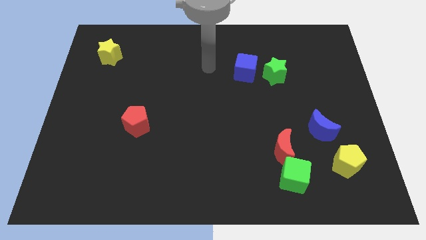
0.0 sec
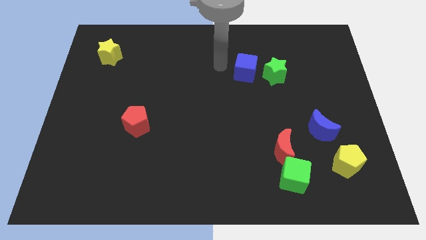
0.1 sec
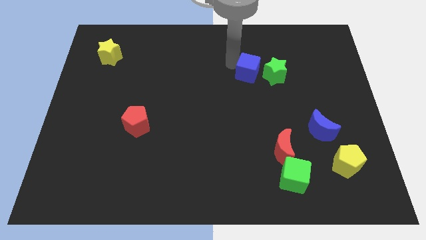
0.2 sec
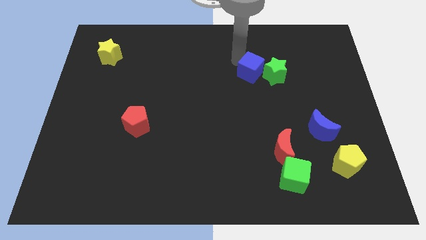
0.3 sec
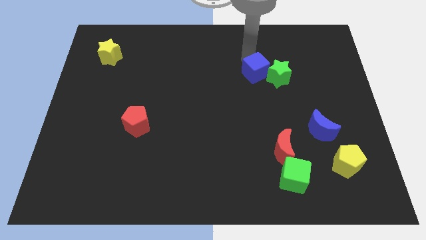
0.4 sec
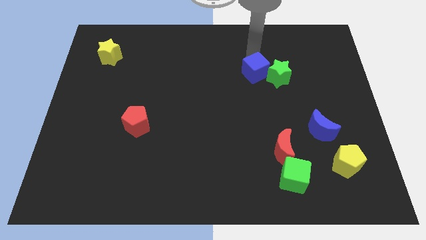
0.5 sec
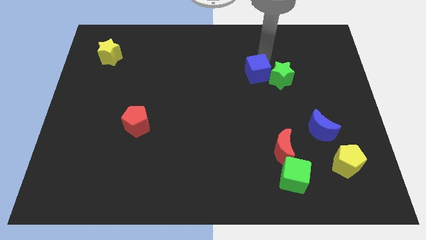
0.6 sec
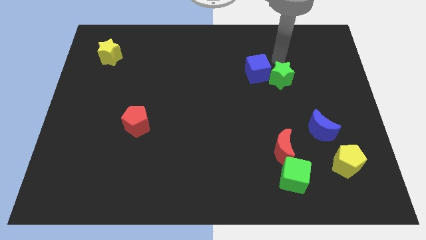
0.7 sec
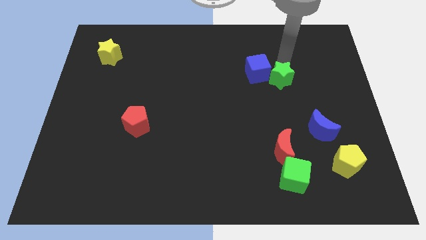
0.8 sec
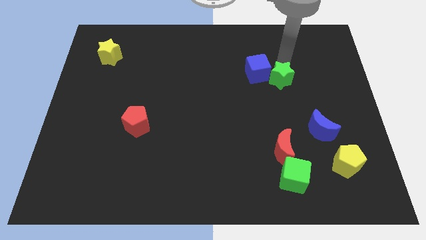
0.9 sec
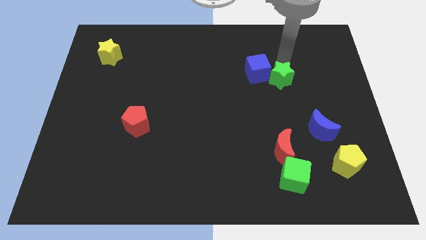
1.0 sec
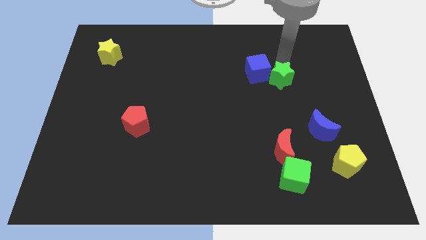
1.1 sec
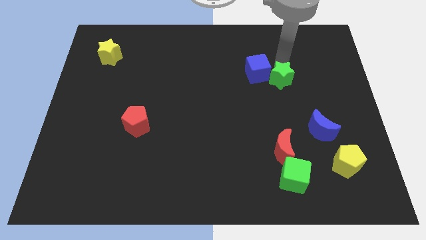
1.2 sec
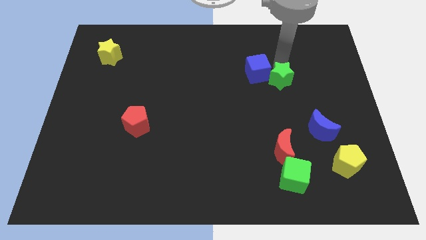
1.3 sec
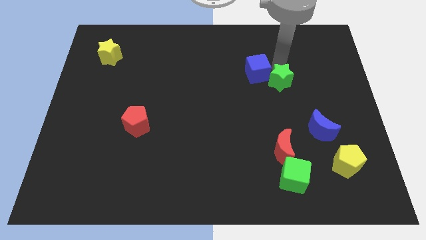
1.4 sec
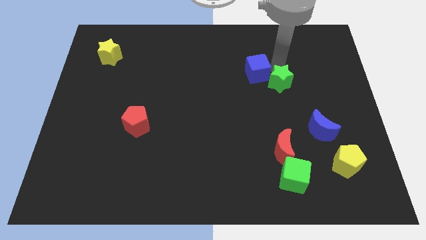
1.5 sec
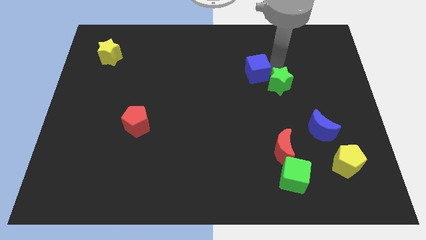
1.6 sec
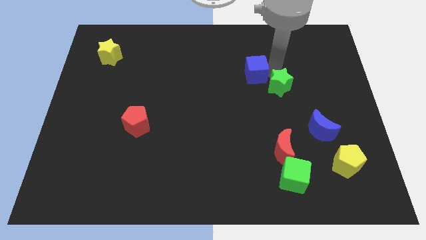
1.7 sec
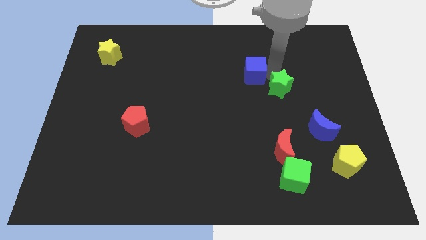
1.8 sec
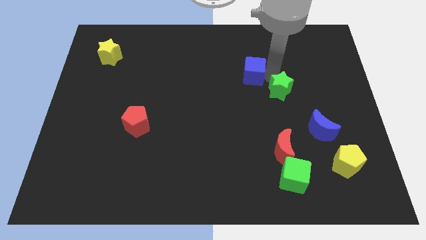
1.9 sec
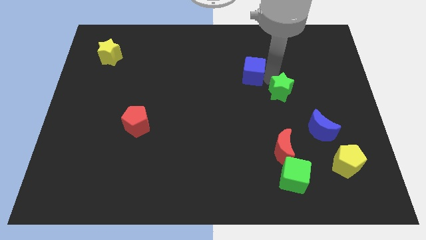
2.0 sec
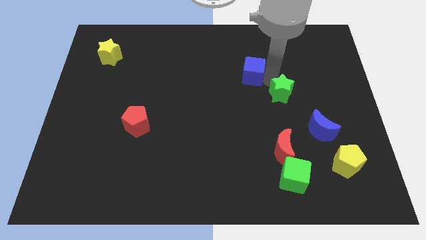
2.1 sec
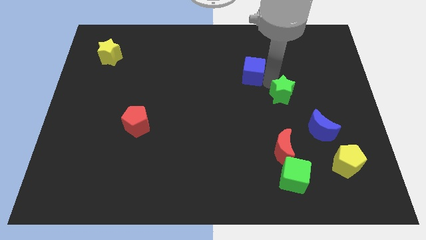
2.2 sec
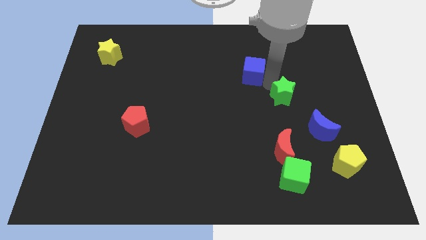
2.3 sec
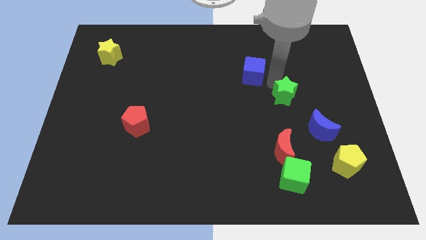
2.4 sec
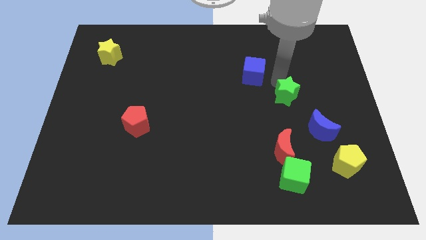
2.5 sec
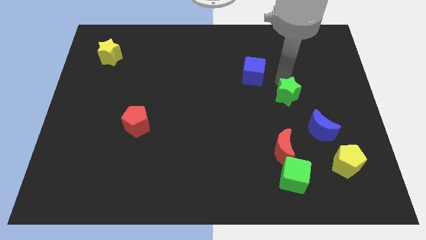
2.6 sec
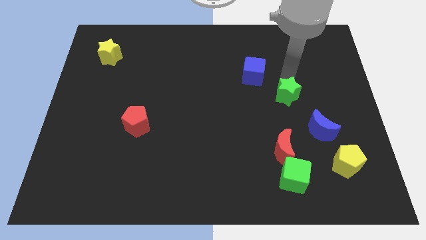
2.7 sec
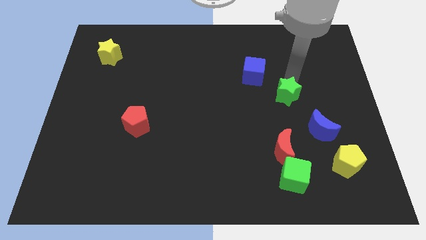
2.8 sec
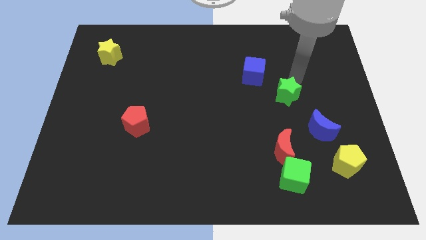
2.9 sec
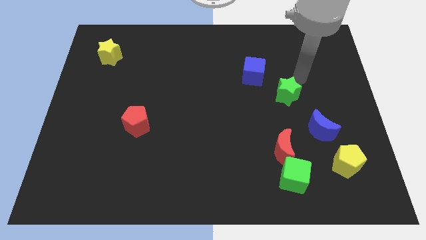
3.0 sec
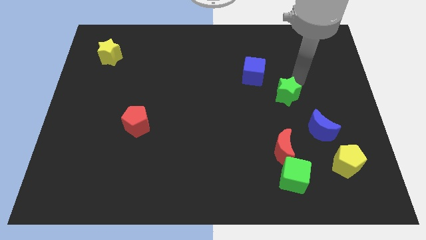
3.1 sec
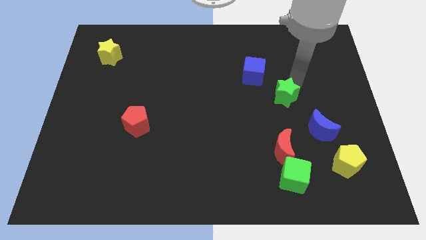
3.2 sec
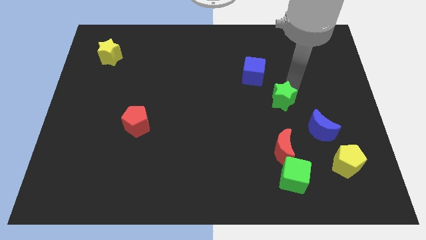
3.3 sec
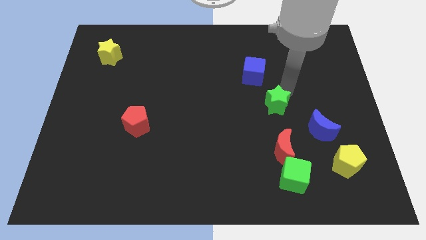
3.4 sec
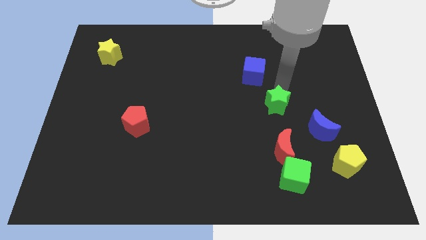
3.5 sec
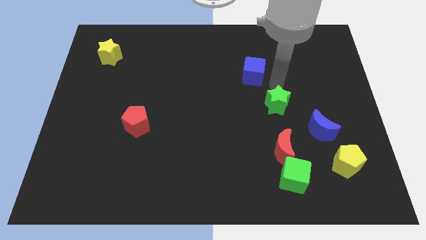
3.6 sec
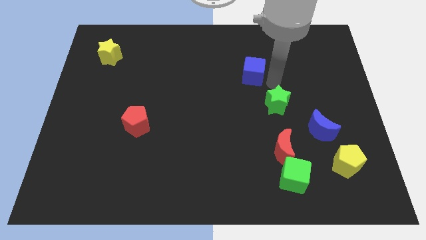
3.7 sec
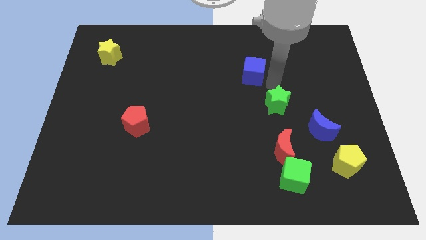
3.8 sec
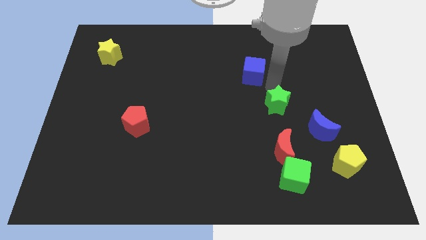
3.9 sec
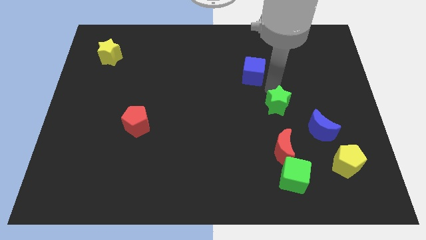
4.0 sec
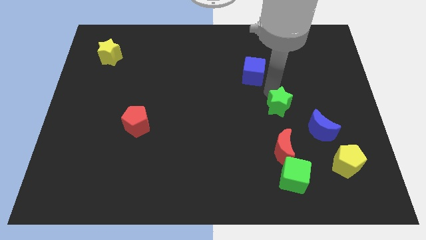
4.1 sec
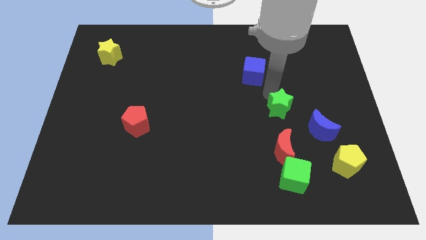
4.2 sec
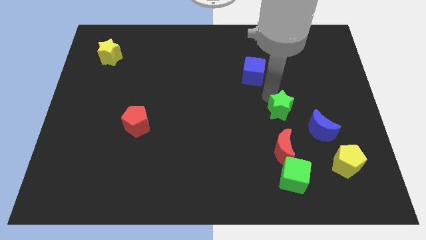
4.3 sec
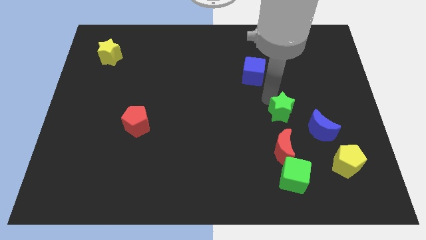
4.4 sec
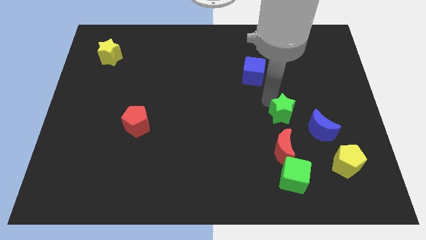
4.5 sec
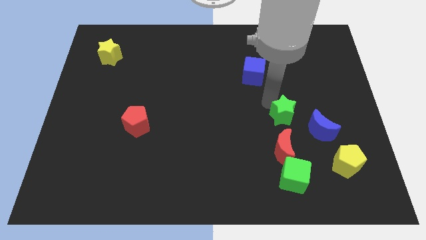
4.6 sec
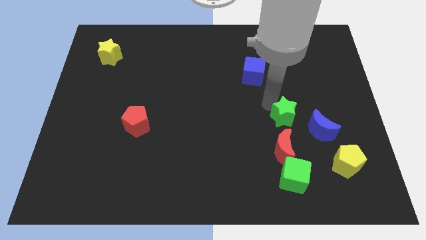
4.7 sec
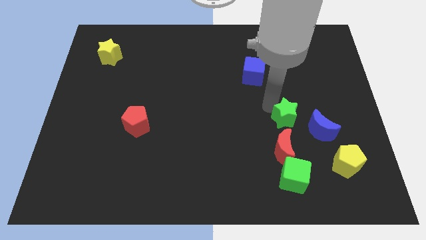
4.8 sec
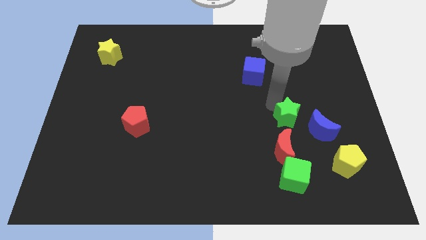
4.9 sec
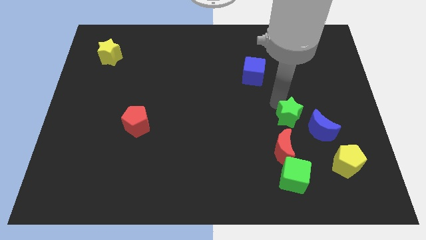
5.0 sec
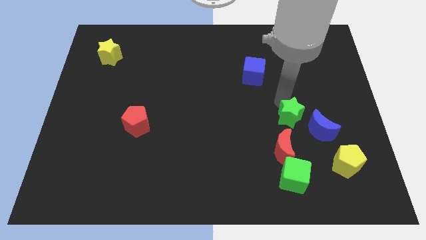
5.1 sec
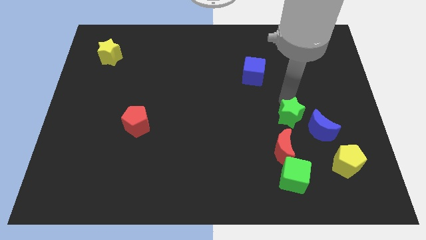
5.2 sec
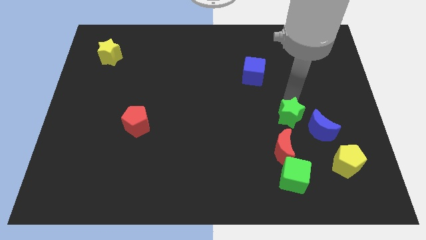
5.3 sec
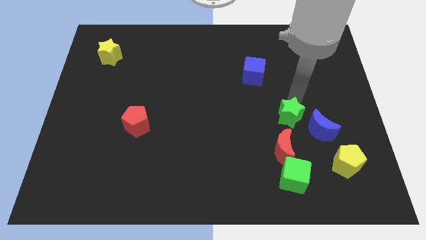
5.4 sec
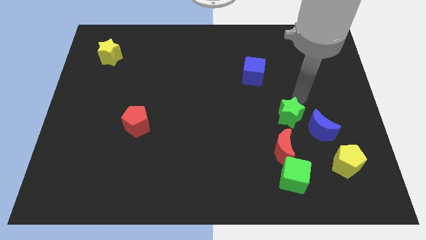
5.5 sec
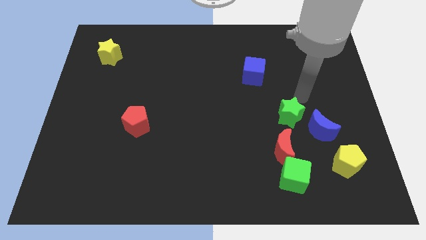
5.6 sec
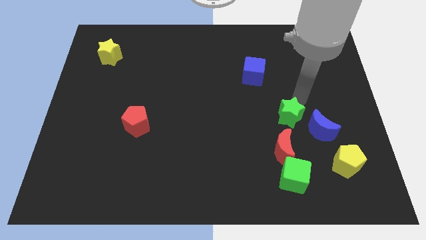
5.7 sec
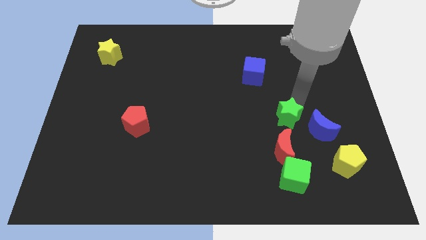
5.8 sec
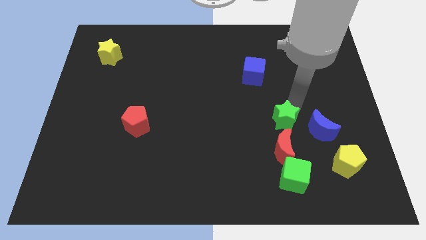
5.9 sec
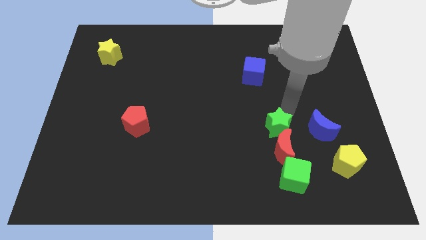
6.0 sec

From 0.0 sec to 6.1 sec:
push the green star towards the red moon
